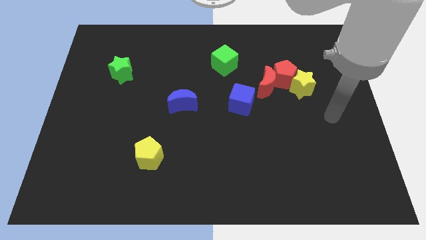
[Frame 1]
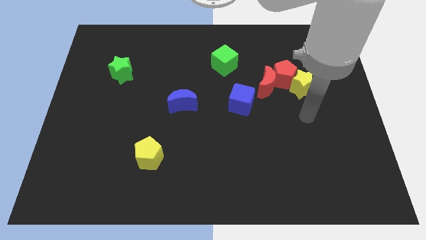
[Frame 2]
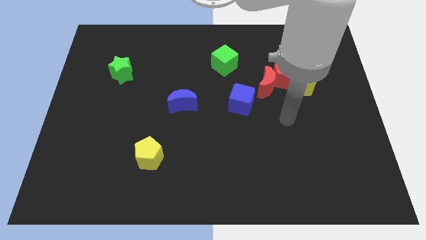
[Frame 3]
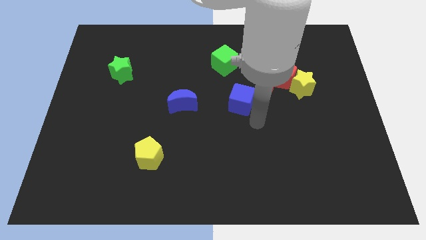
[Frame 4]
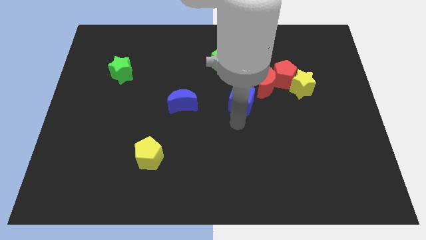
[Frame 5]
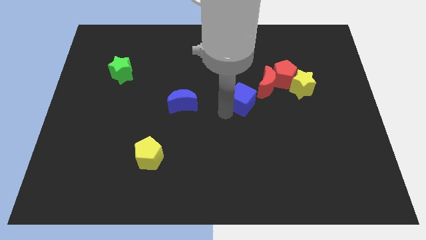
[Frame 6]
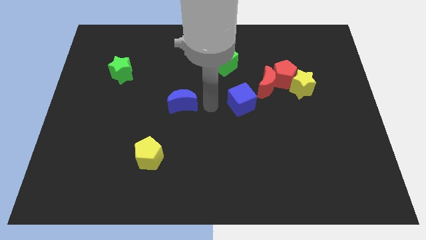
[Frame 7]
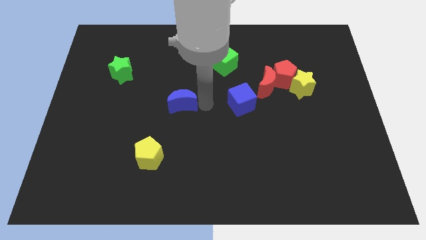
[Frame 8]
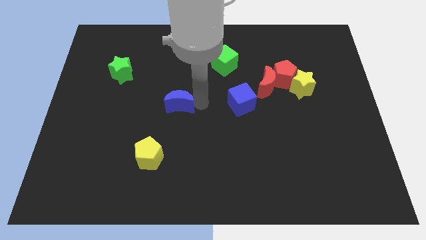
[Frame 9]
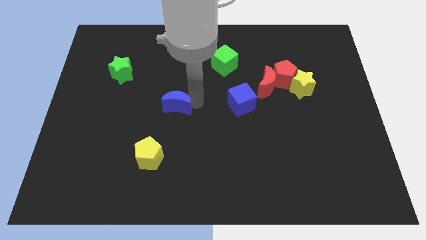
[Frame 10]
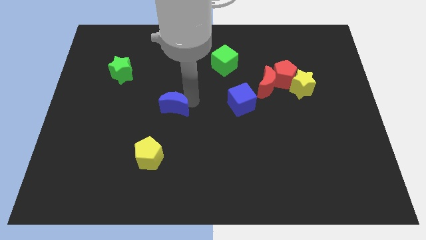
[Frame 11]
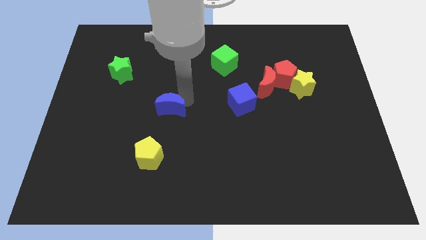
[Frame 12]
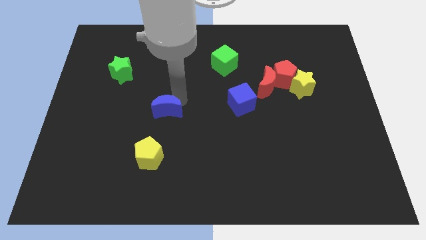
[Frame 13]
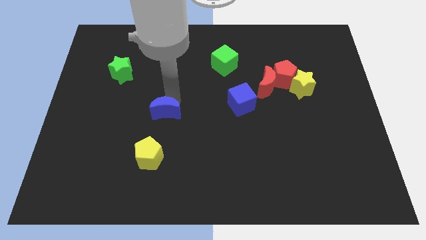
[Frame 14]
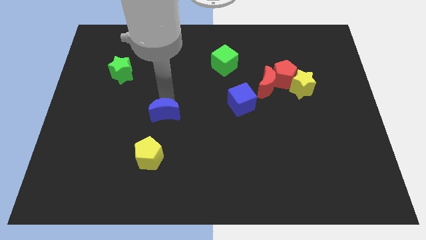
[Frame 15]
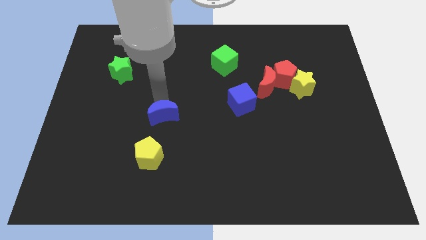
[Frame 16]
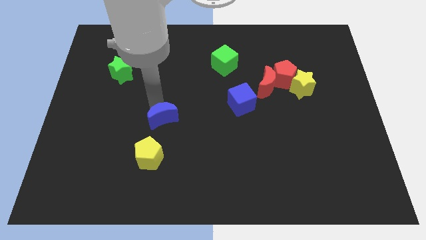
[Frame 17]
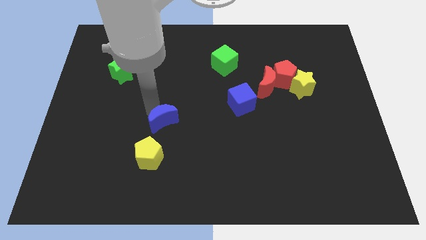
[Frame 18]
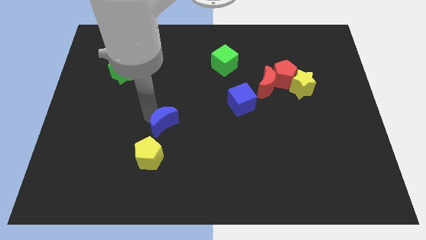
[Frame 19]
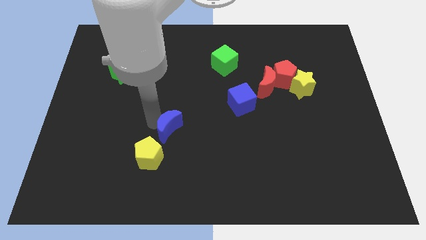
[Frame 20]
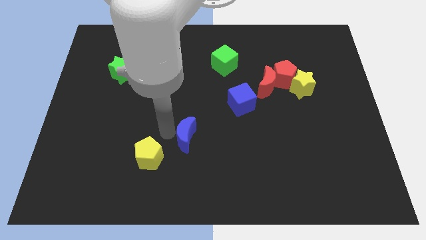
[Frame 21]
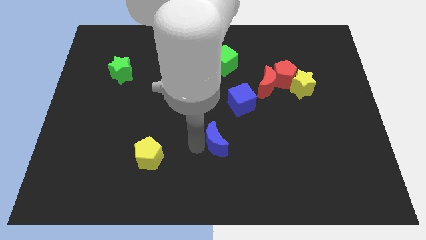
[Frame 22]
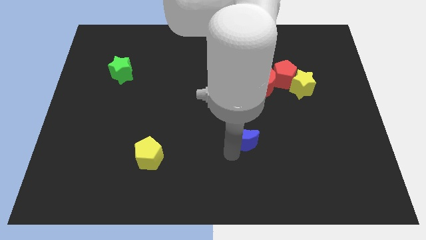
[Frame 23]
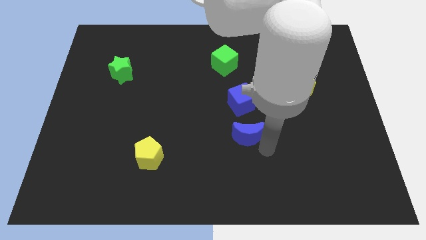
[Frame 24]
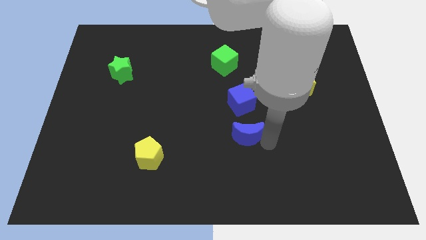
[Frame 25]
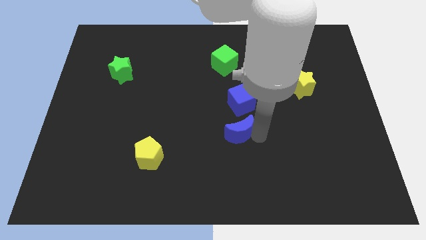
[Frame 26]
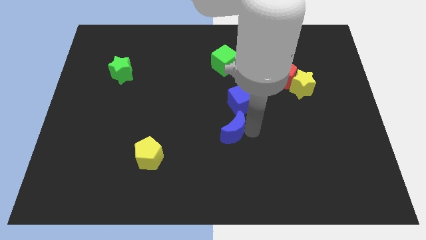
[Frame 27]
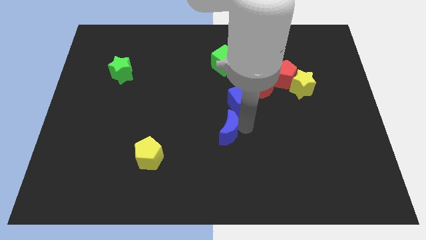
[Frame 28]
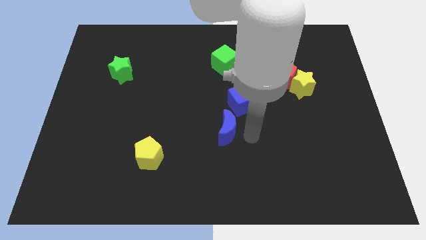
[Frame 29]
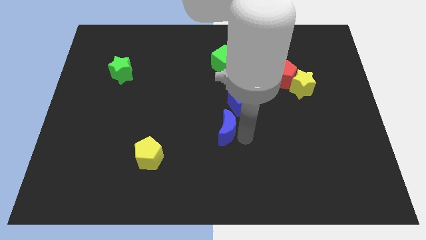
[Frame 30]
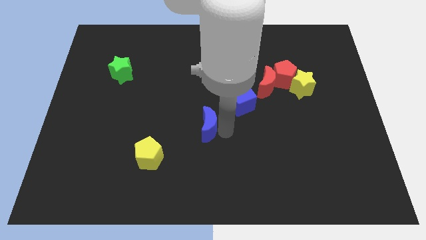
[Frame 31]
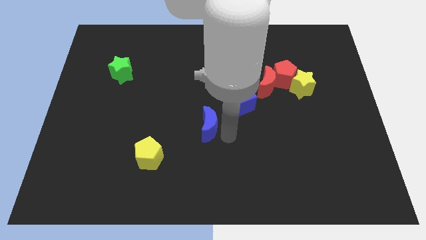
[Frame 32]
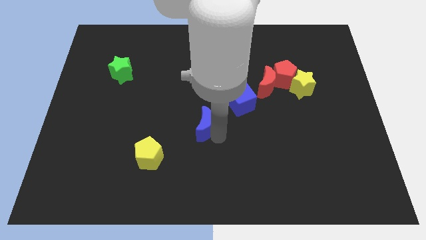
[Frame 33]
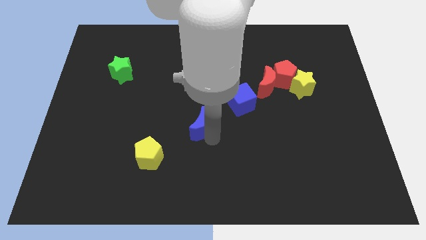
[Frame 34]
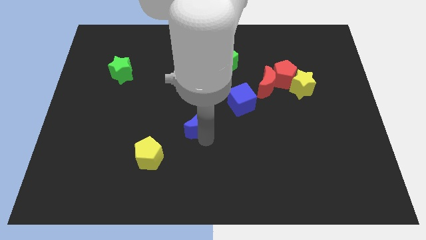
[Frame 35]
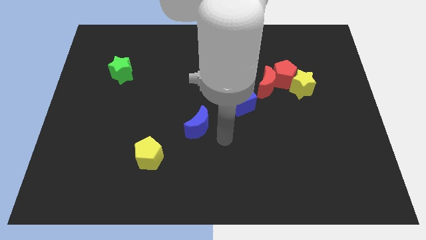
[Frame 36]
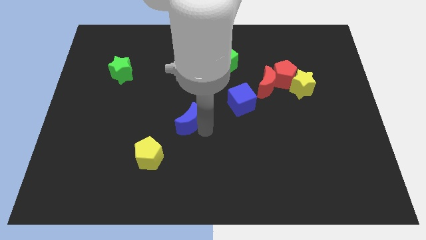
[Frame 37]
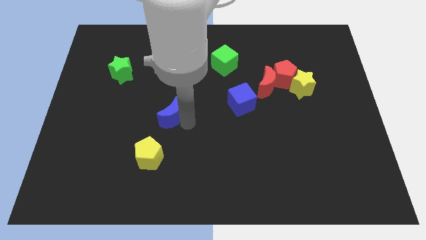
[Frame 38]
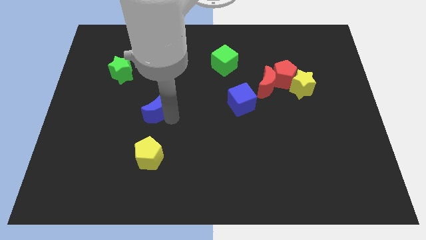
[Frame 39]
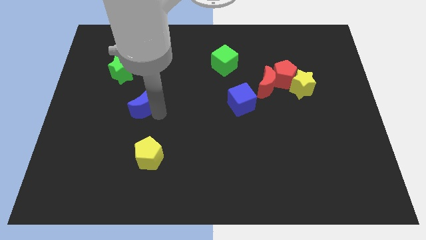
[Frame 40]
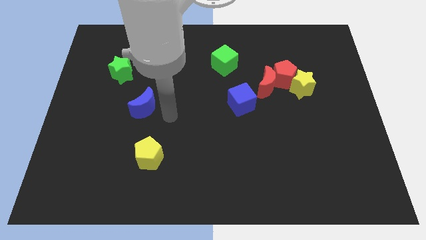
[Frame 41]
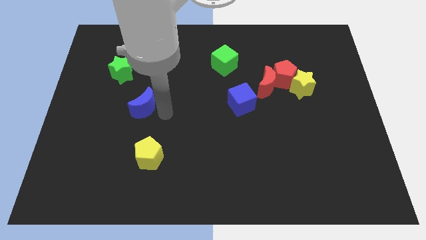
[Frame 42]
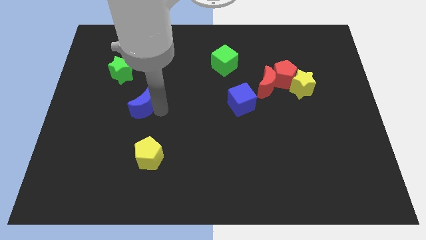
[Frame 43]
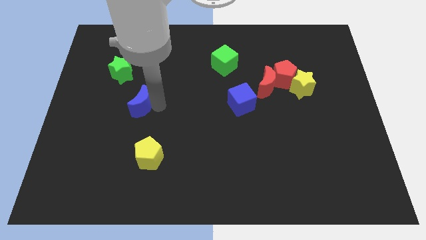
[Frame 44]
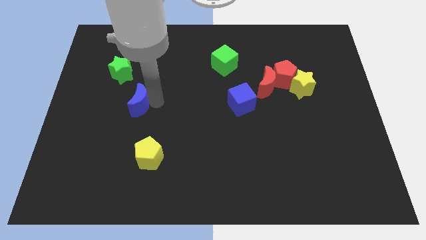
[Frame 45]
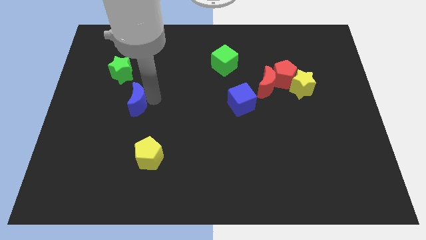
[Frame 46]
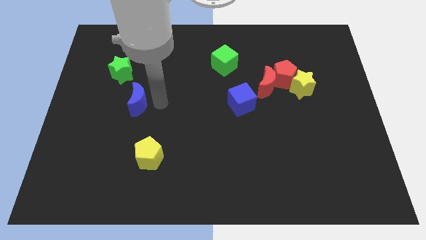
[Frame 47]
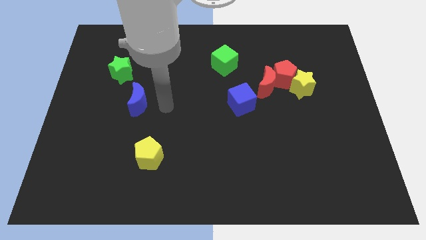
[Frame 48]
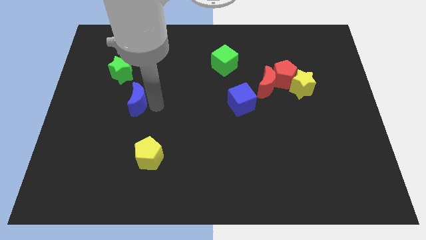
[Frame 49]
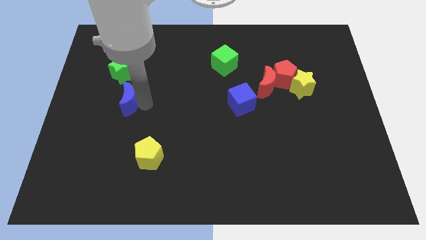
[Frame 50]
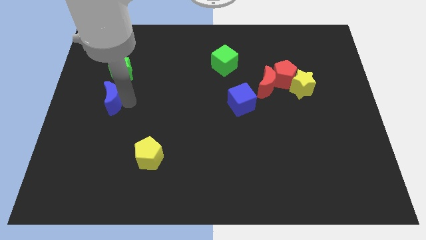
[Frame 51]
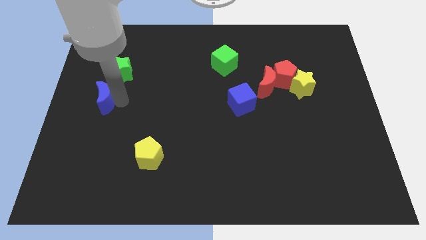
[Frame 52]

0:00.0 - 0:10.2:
move the blue moon to the left side
